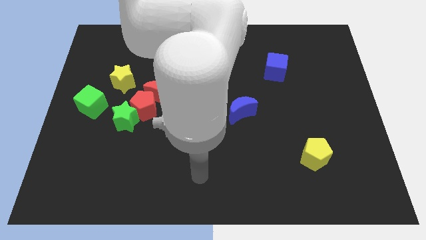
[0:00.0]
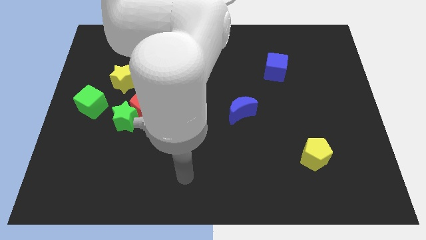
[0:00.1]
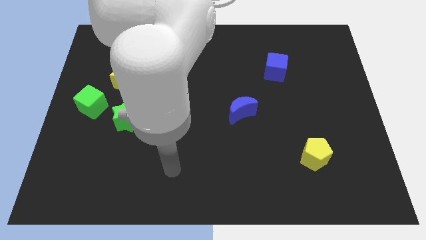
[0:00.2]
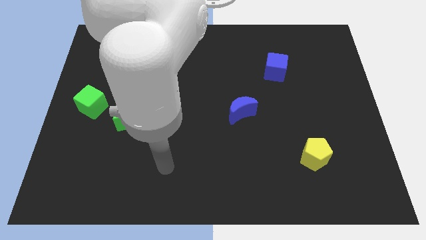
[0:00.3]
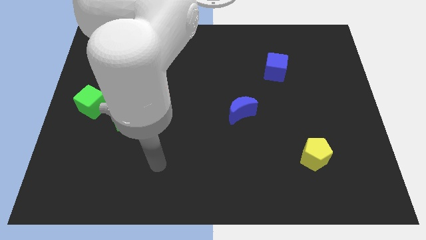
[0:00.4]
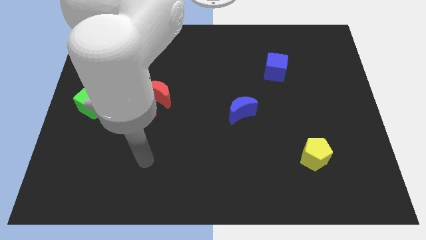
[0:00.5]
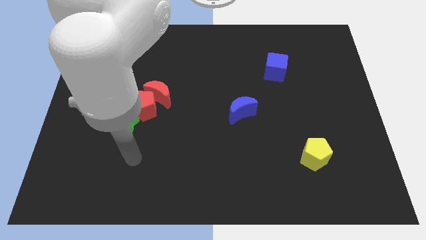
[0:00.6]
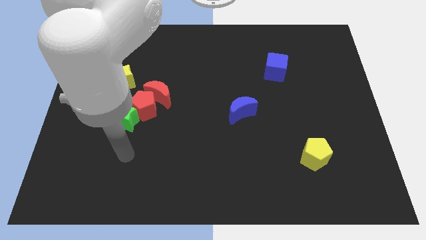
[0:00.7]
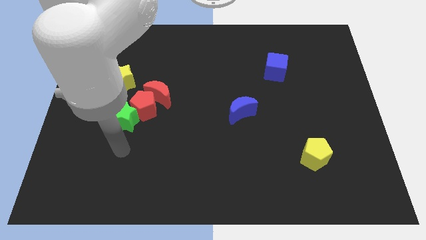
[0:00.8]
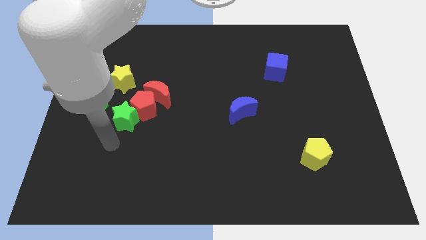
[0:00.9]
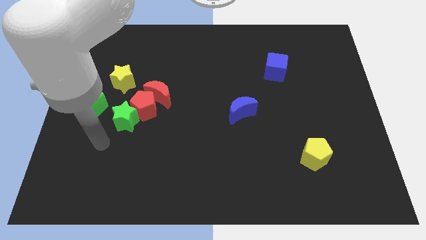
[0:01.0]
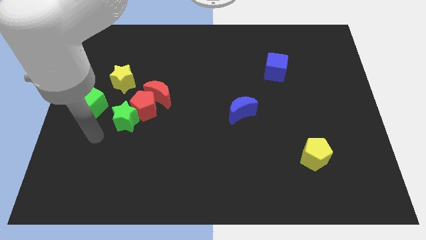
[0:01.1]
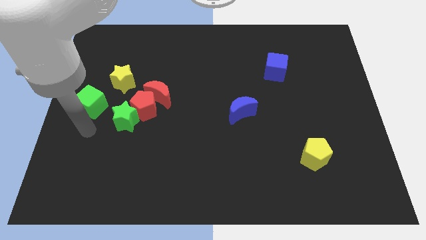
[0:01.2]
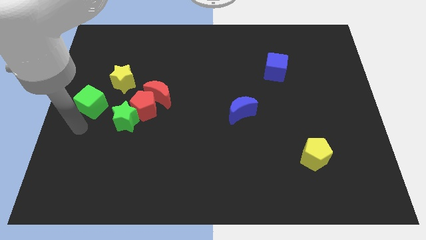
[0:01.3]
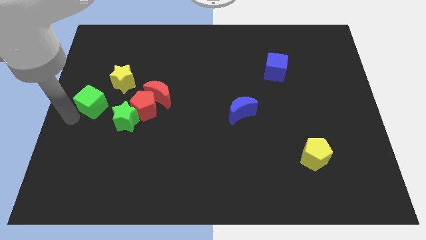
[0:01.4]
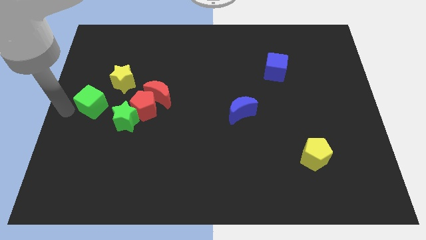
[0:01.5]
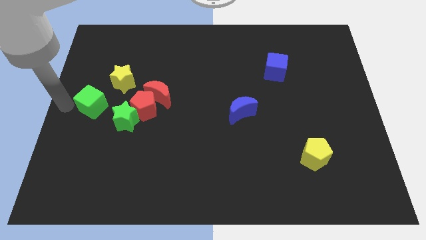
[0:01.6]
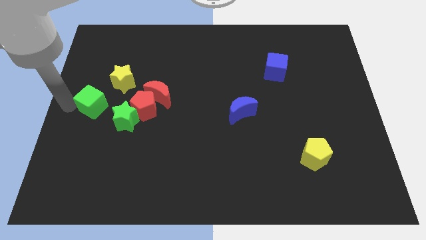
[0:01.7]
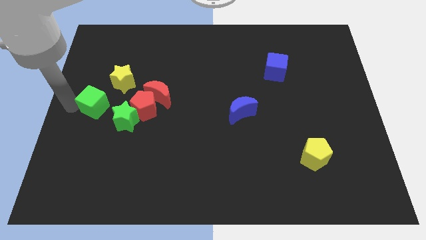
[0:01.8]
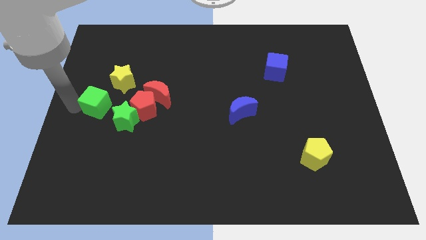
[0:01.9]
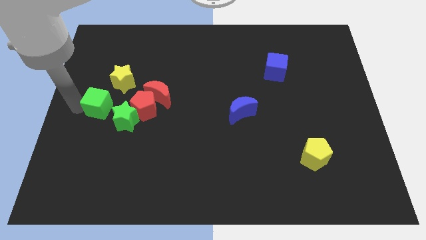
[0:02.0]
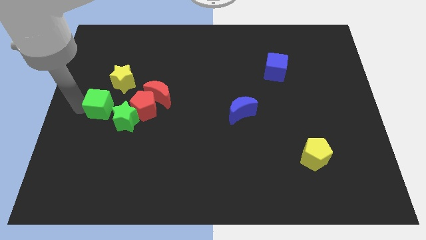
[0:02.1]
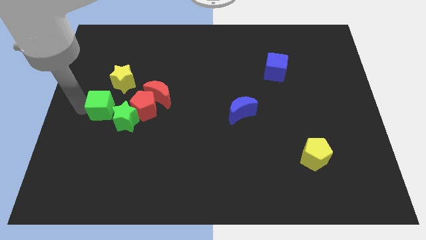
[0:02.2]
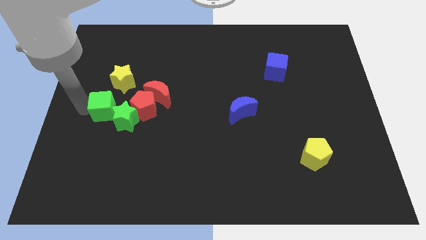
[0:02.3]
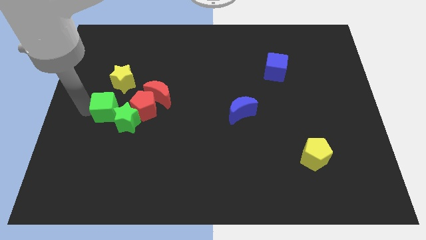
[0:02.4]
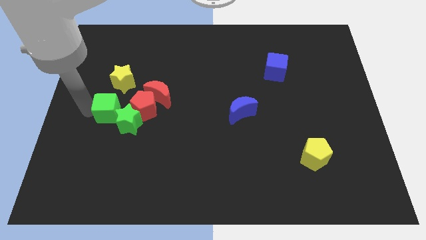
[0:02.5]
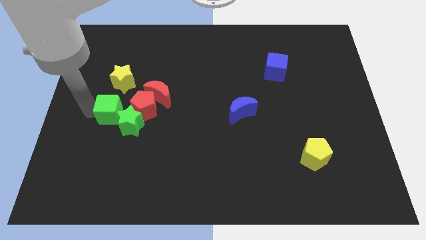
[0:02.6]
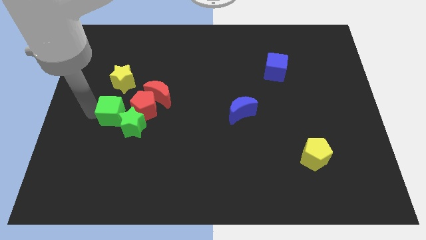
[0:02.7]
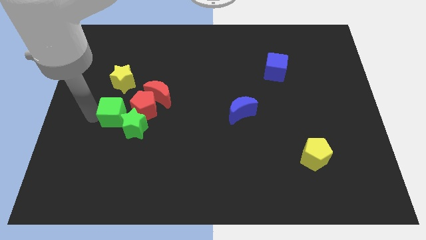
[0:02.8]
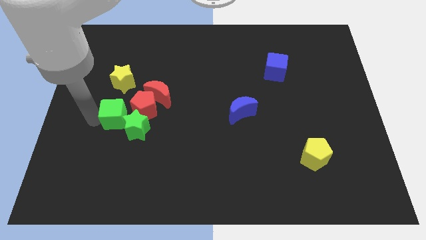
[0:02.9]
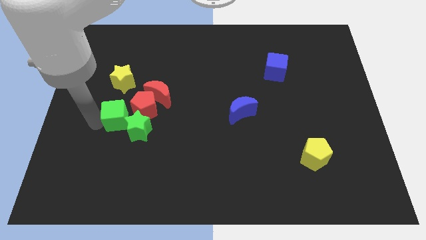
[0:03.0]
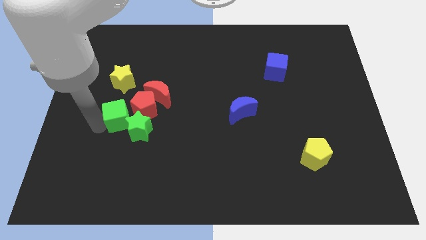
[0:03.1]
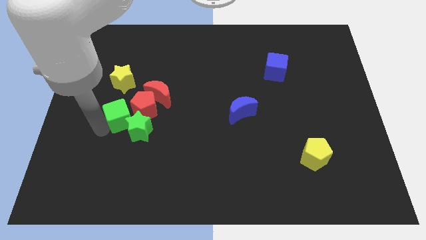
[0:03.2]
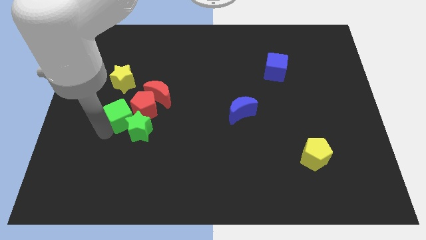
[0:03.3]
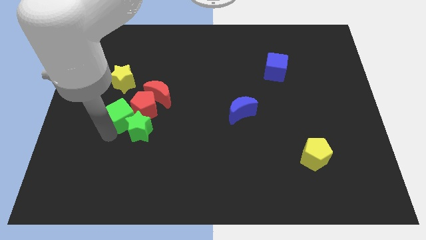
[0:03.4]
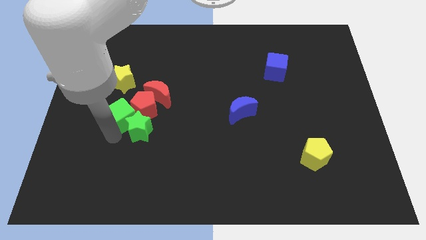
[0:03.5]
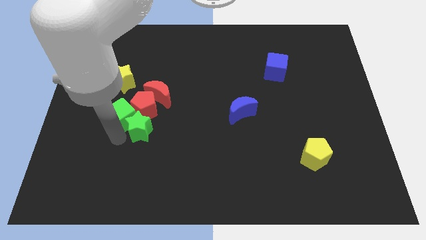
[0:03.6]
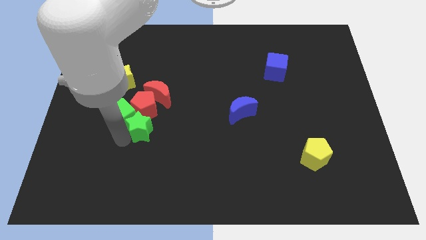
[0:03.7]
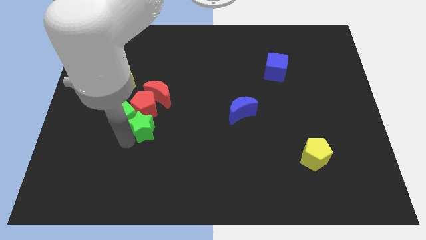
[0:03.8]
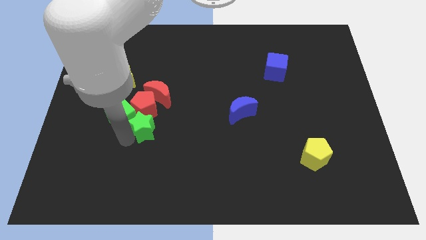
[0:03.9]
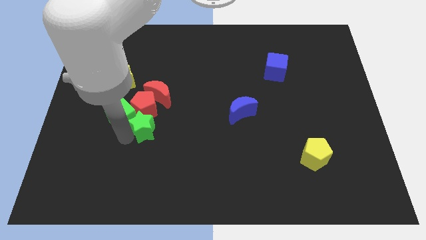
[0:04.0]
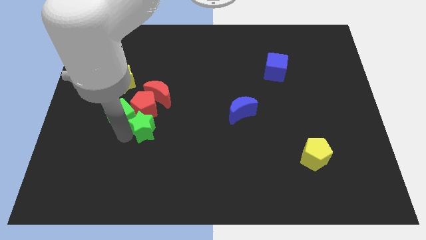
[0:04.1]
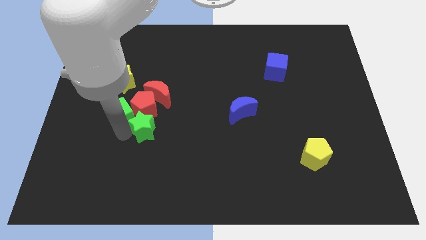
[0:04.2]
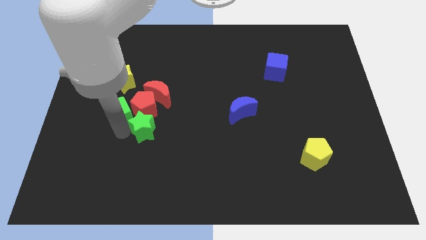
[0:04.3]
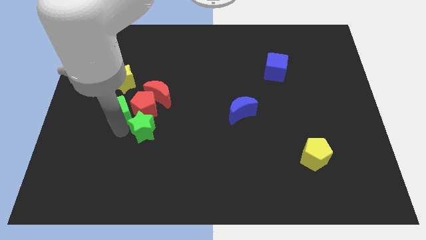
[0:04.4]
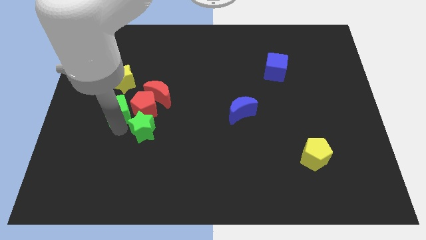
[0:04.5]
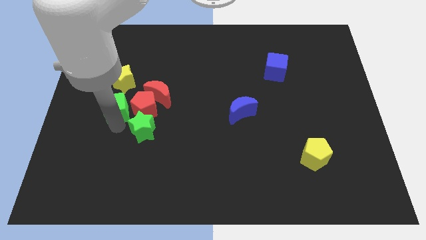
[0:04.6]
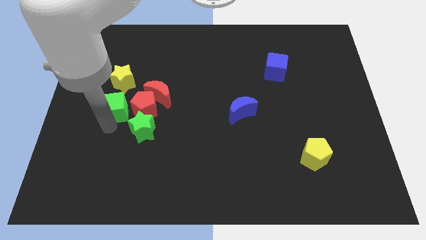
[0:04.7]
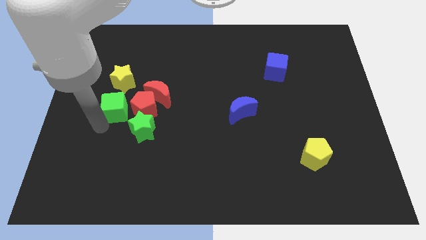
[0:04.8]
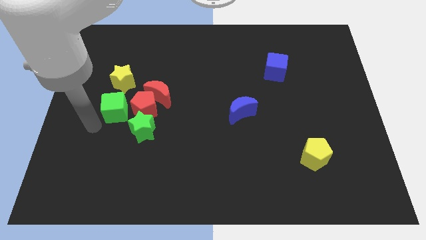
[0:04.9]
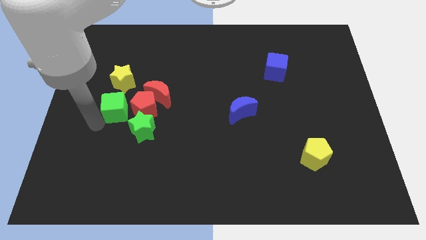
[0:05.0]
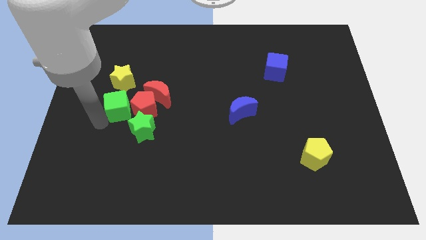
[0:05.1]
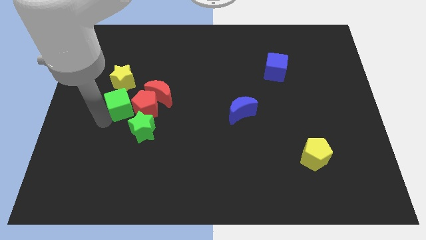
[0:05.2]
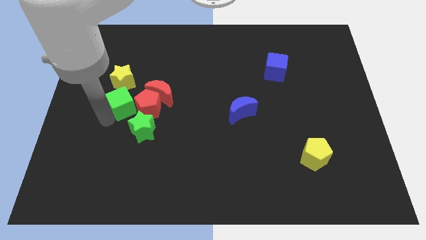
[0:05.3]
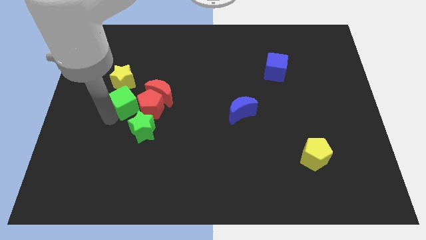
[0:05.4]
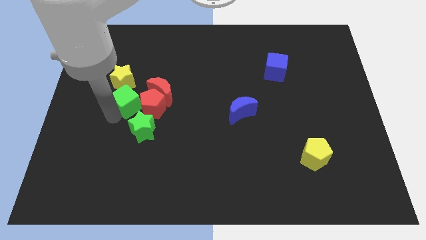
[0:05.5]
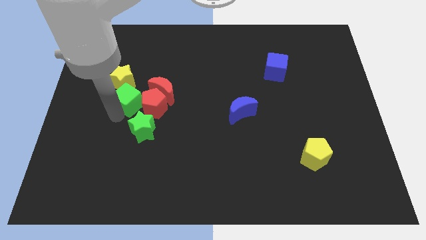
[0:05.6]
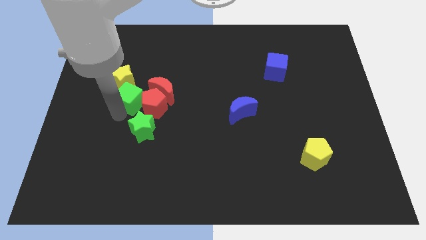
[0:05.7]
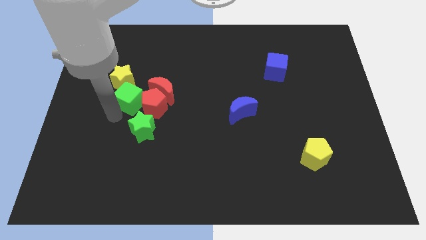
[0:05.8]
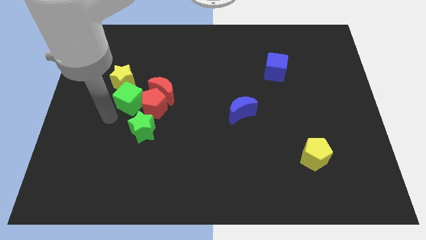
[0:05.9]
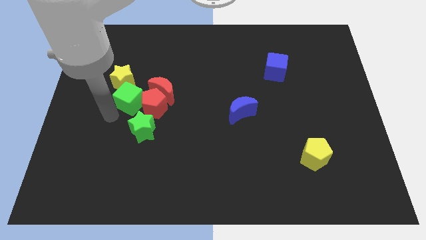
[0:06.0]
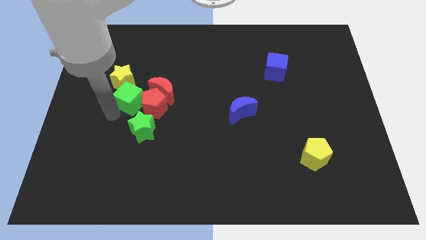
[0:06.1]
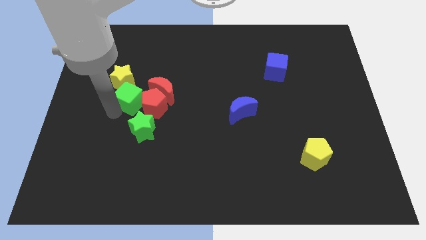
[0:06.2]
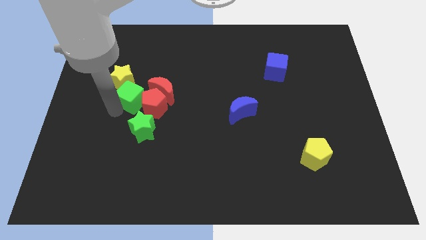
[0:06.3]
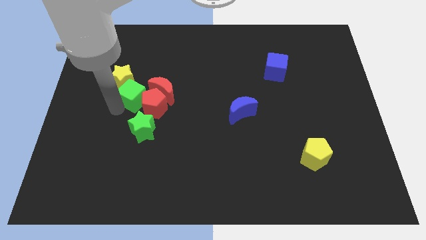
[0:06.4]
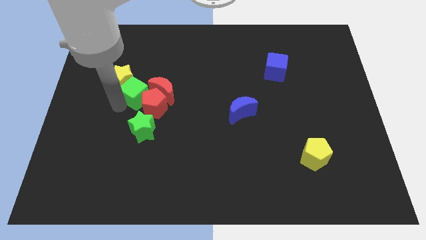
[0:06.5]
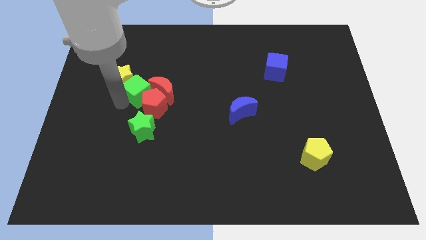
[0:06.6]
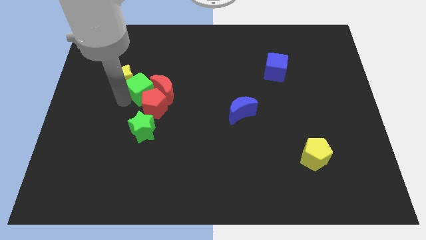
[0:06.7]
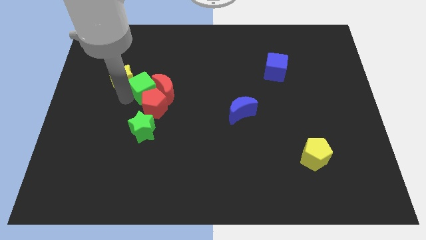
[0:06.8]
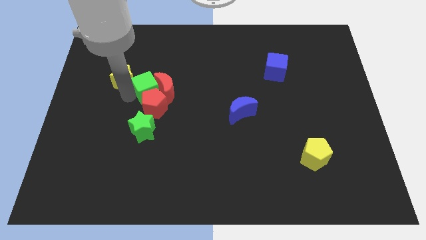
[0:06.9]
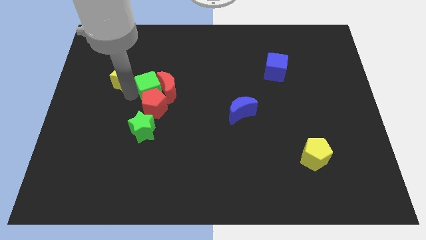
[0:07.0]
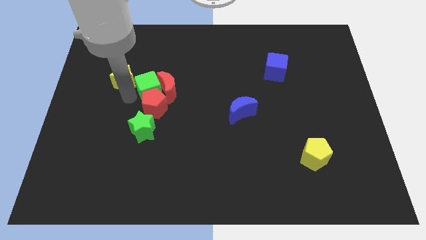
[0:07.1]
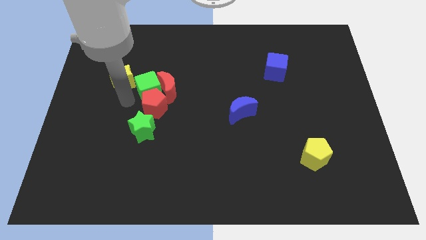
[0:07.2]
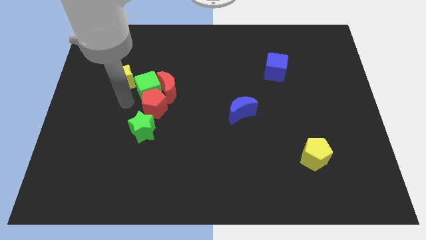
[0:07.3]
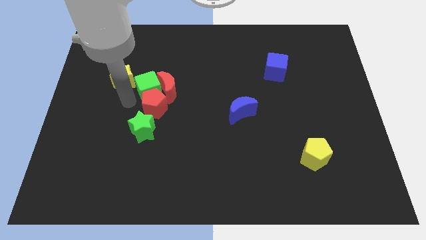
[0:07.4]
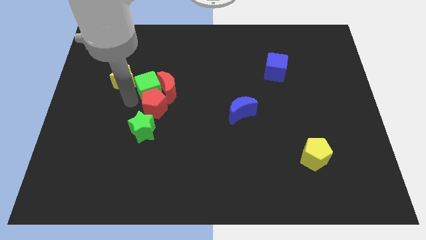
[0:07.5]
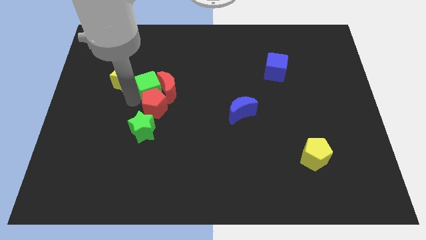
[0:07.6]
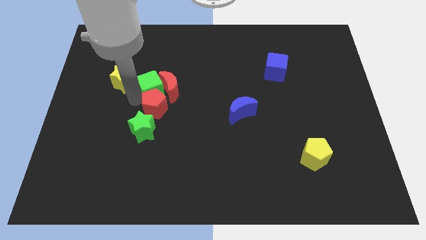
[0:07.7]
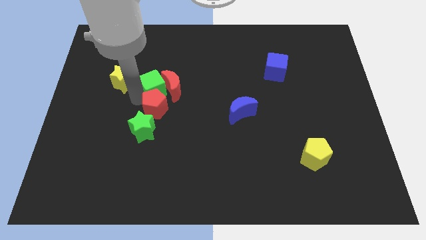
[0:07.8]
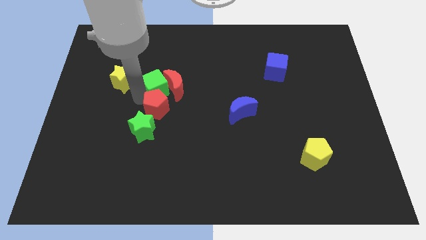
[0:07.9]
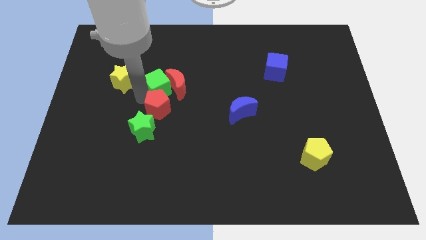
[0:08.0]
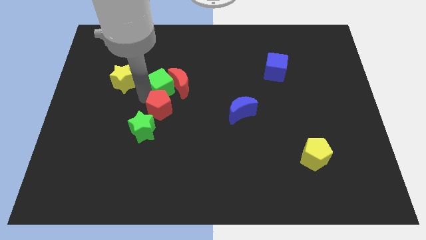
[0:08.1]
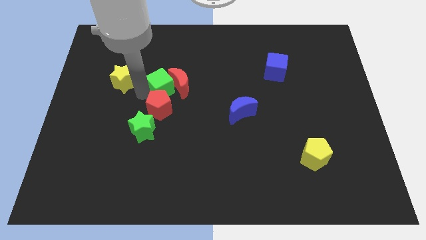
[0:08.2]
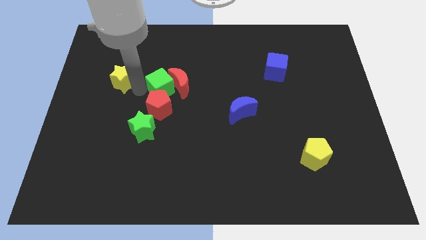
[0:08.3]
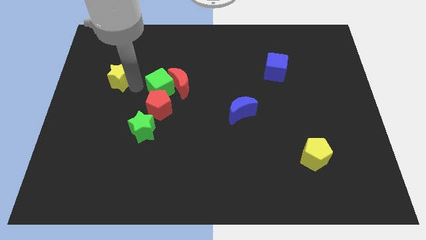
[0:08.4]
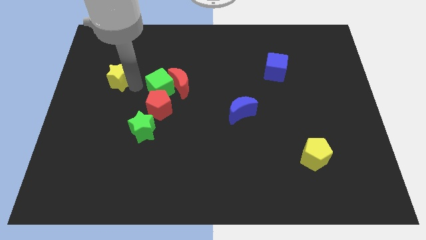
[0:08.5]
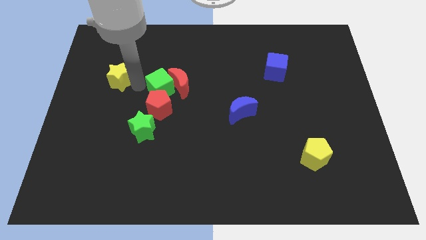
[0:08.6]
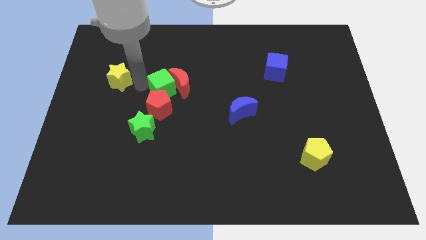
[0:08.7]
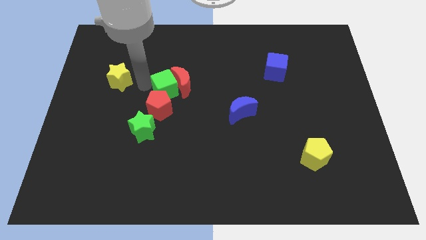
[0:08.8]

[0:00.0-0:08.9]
slide the green cube to the center of the board
